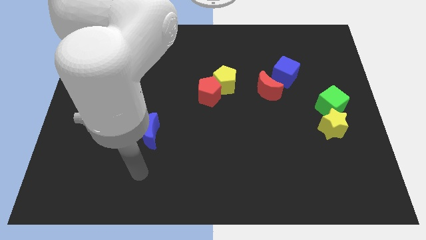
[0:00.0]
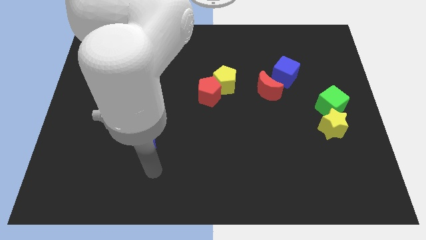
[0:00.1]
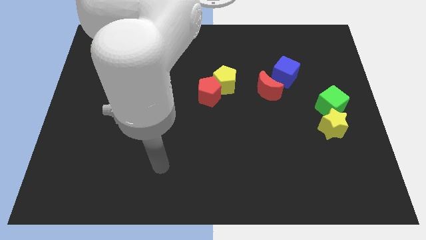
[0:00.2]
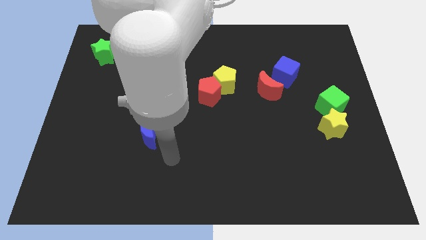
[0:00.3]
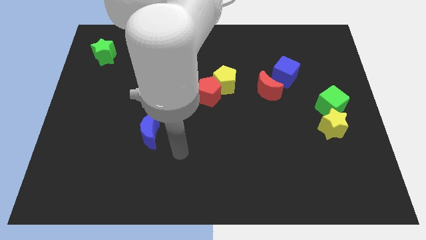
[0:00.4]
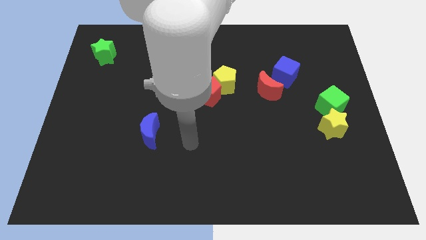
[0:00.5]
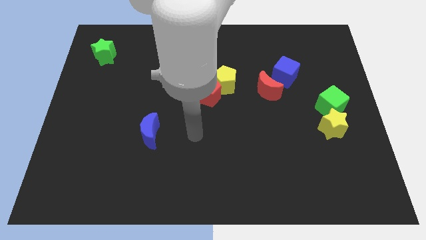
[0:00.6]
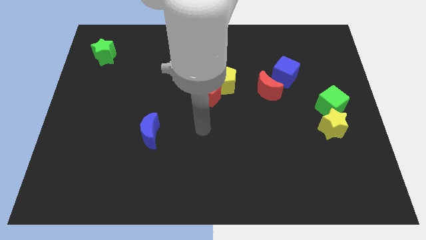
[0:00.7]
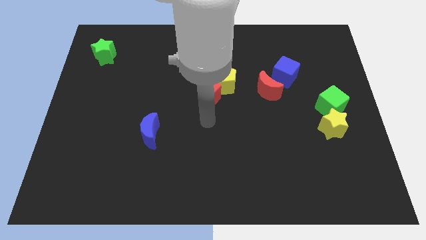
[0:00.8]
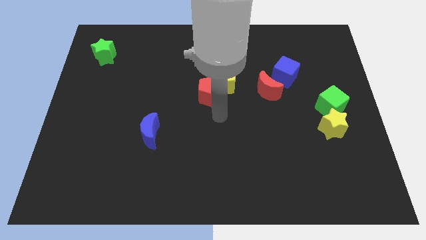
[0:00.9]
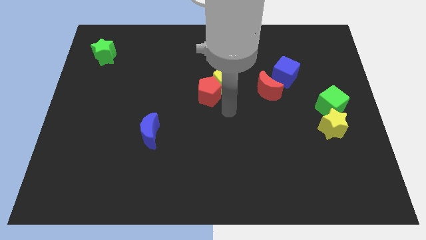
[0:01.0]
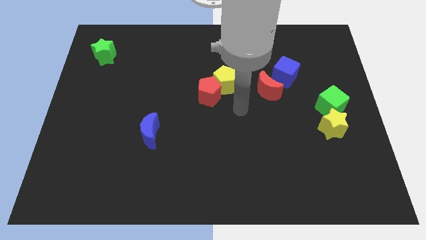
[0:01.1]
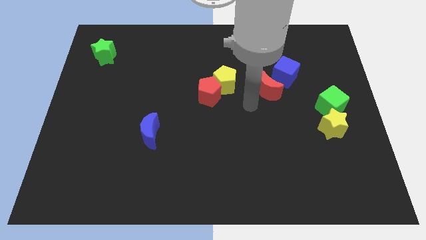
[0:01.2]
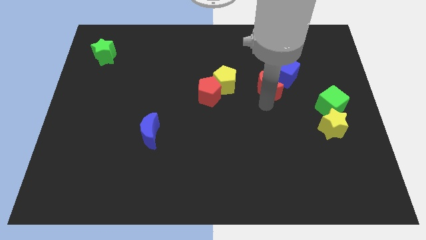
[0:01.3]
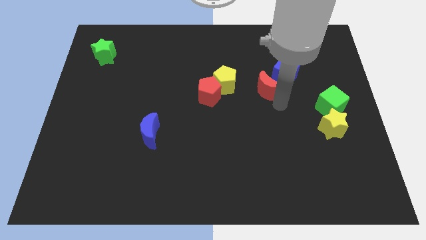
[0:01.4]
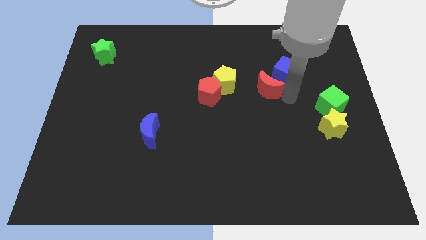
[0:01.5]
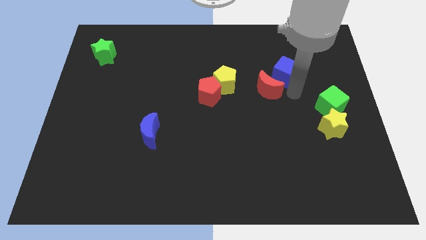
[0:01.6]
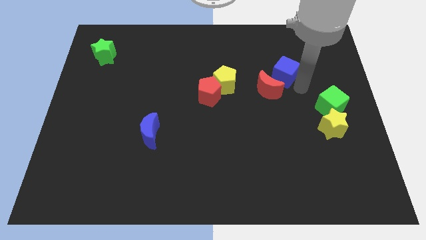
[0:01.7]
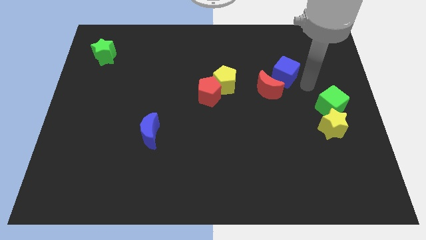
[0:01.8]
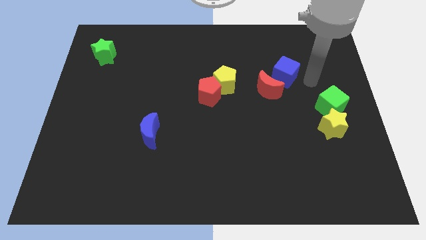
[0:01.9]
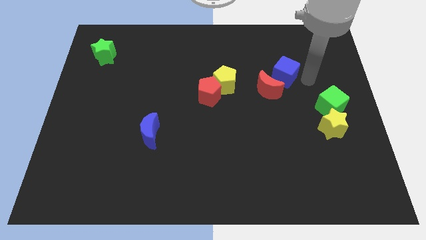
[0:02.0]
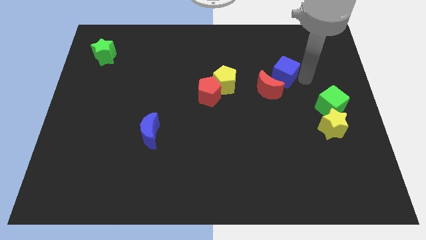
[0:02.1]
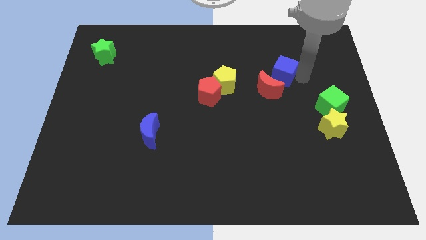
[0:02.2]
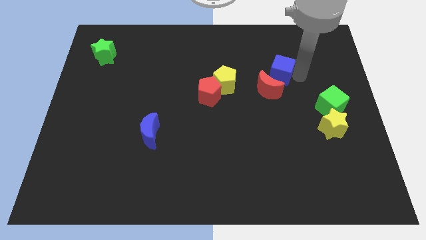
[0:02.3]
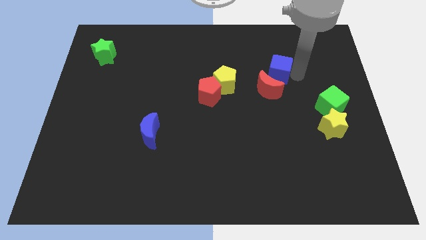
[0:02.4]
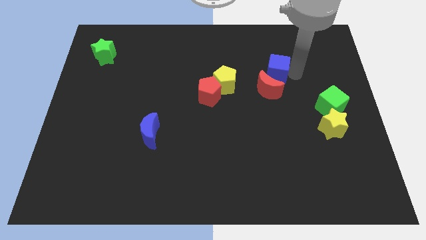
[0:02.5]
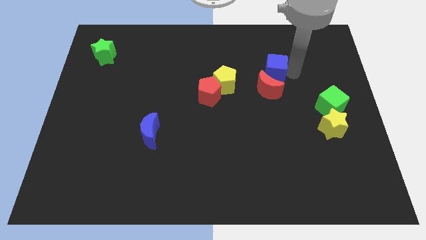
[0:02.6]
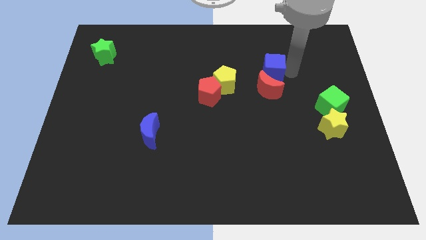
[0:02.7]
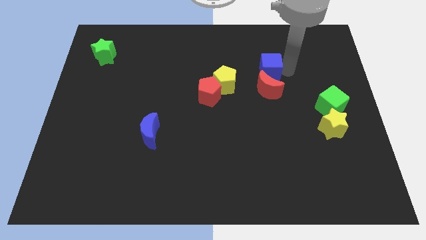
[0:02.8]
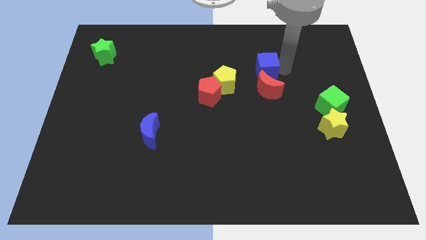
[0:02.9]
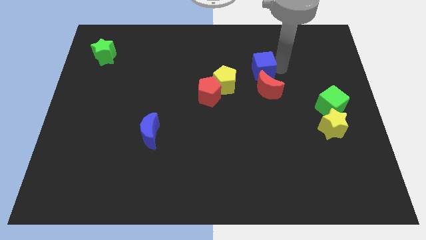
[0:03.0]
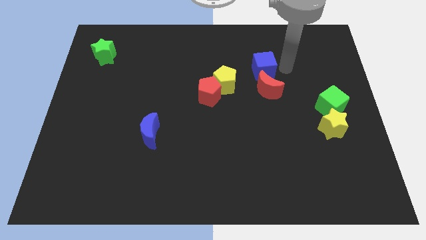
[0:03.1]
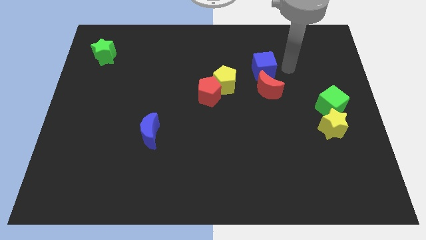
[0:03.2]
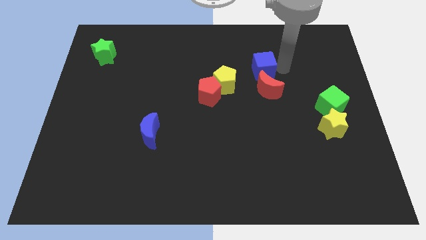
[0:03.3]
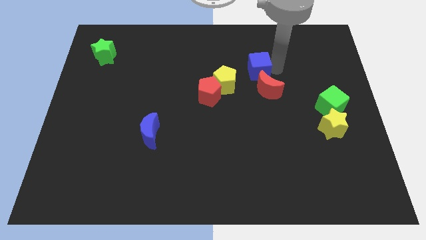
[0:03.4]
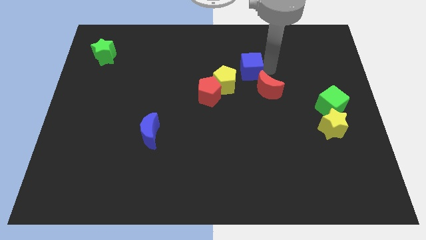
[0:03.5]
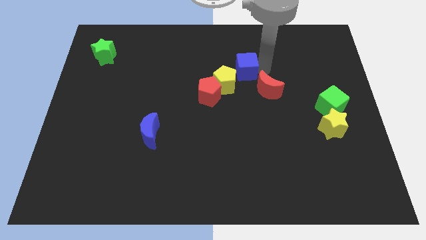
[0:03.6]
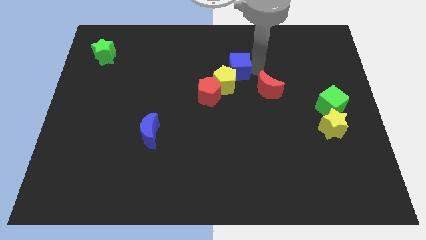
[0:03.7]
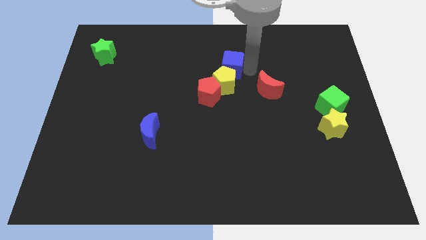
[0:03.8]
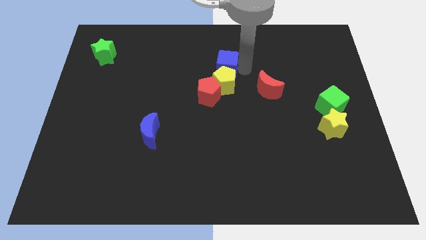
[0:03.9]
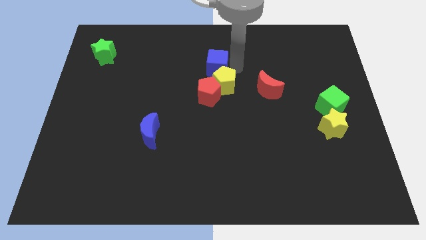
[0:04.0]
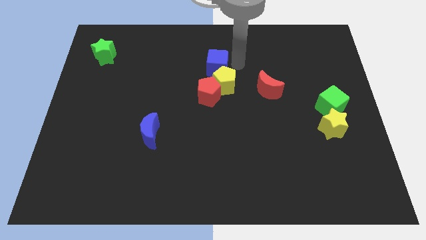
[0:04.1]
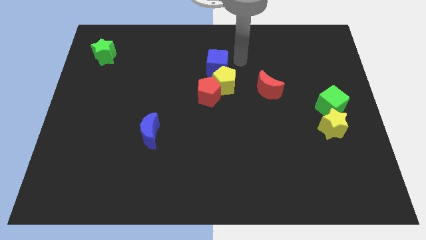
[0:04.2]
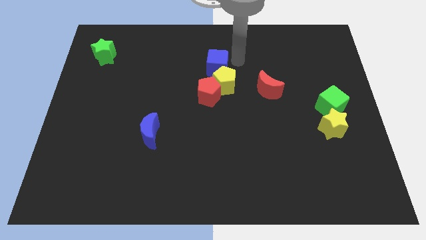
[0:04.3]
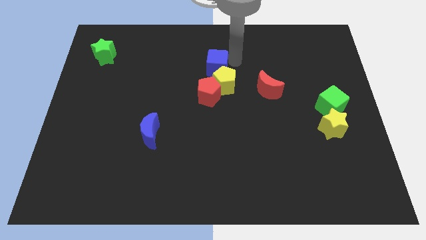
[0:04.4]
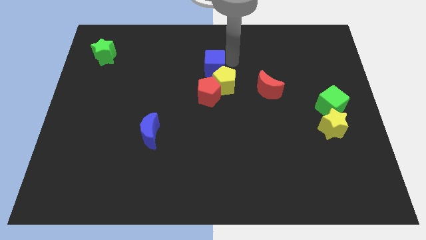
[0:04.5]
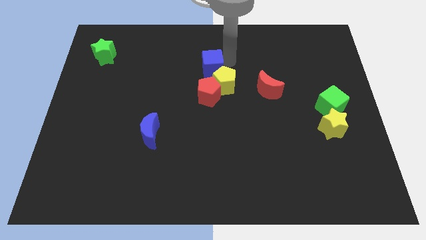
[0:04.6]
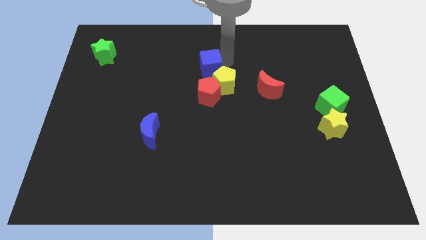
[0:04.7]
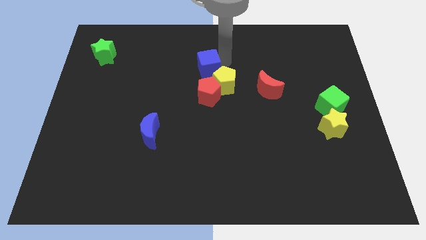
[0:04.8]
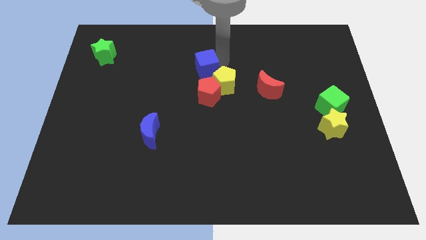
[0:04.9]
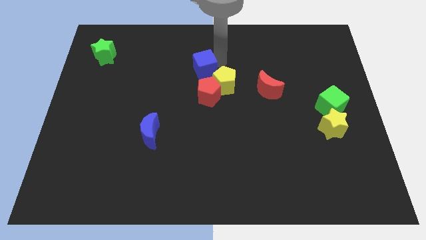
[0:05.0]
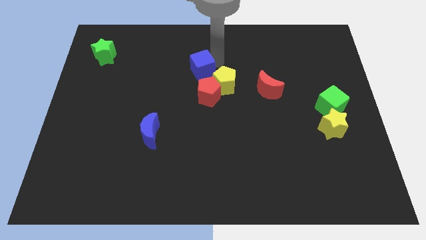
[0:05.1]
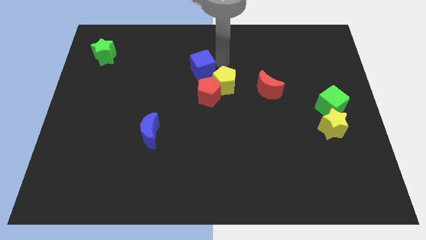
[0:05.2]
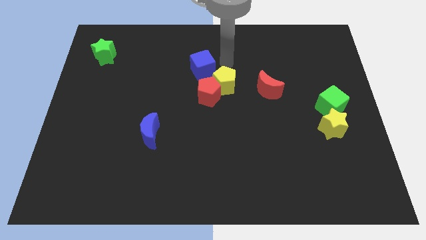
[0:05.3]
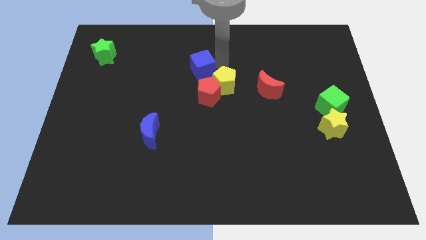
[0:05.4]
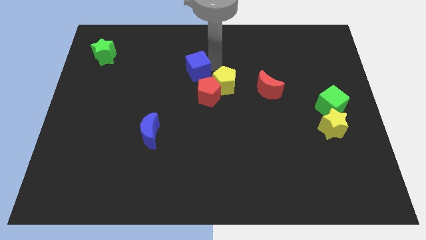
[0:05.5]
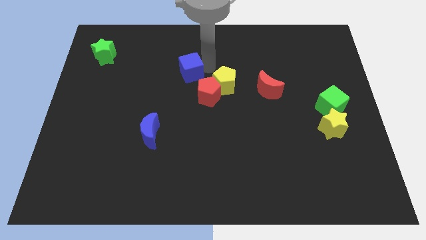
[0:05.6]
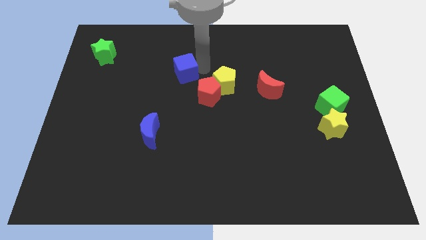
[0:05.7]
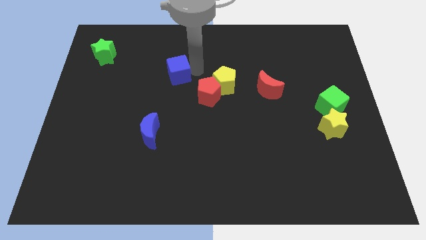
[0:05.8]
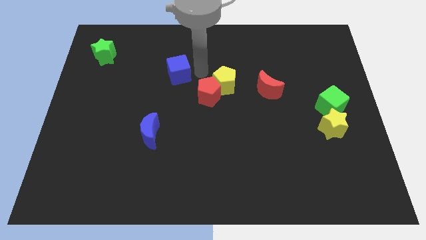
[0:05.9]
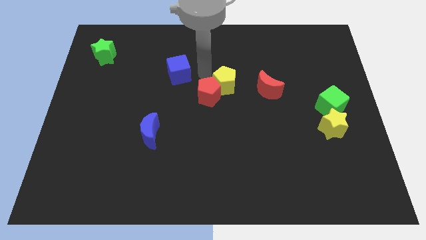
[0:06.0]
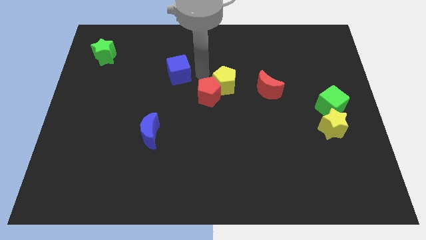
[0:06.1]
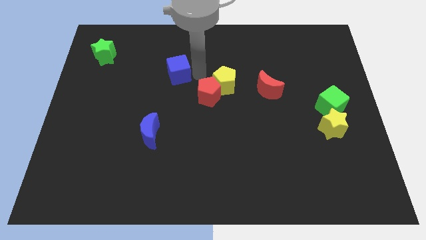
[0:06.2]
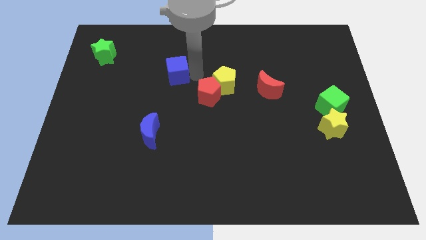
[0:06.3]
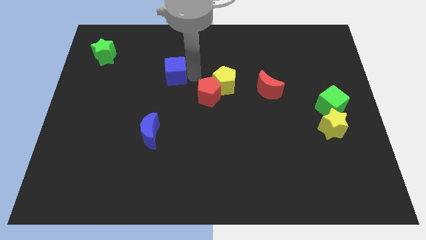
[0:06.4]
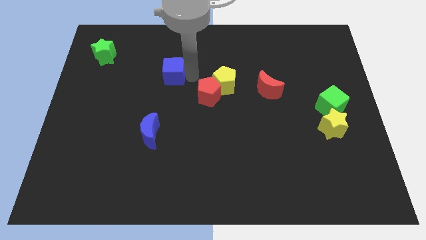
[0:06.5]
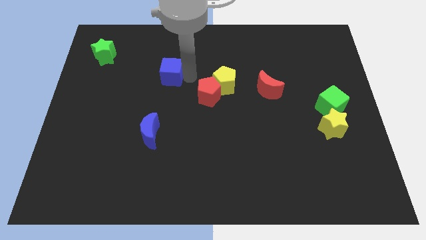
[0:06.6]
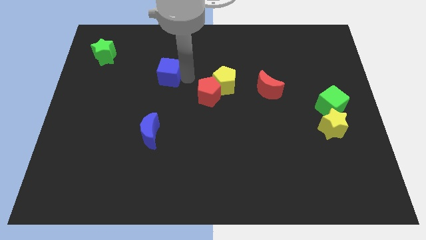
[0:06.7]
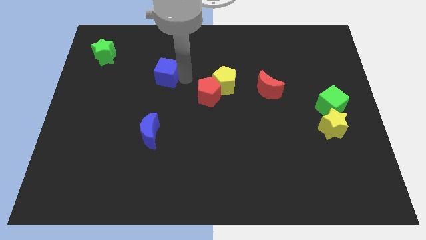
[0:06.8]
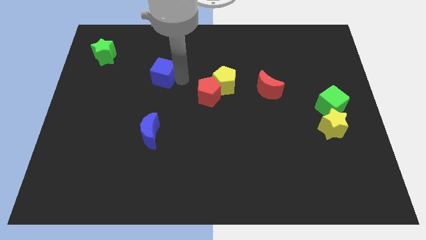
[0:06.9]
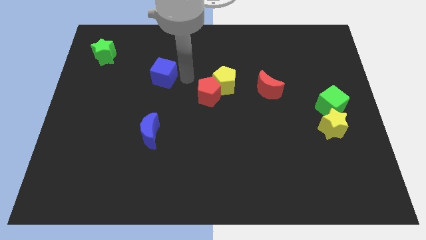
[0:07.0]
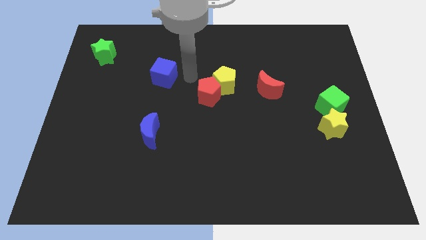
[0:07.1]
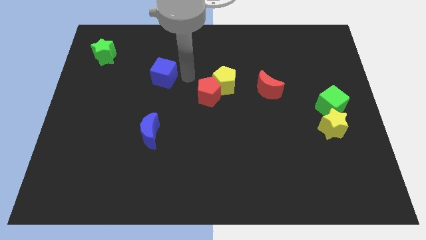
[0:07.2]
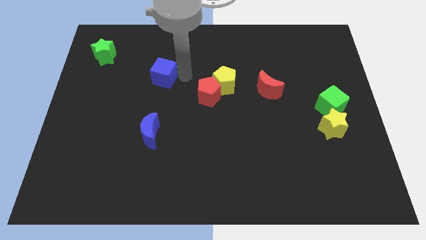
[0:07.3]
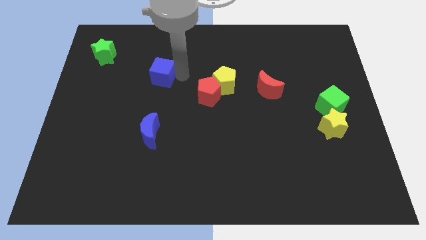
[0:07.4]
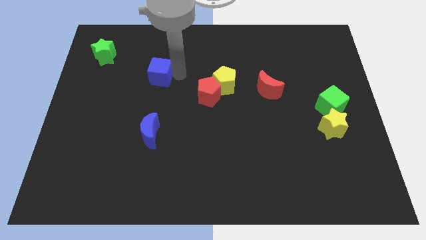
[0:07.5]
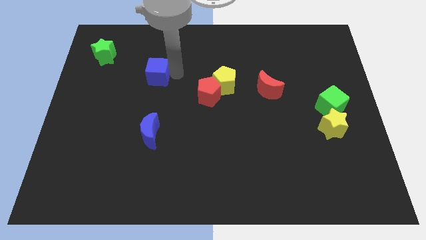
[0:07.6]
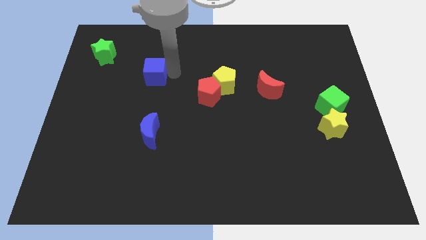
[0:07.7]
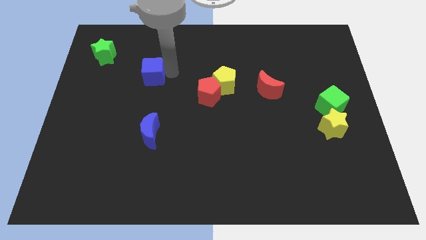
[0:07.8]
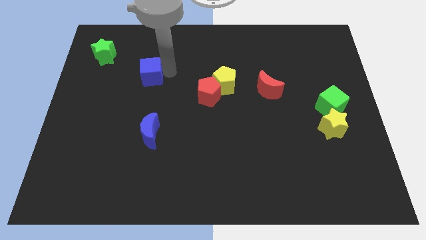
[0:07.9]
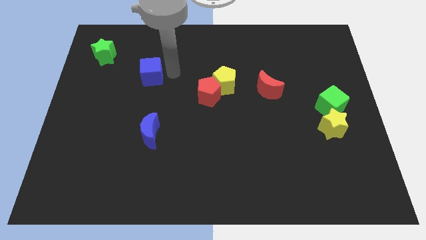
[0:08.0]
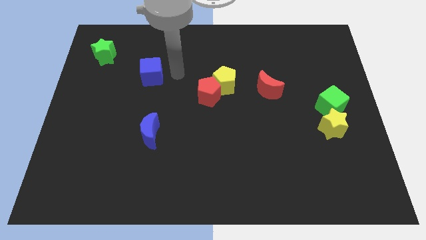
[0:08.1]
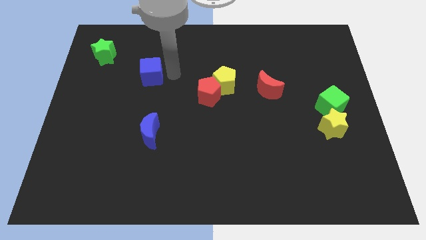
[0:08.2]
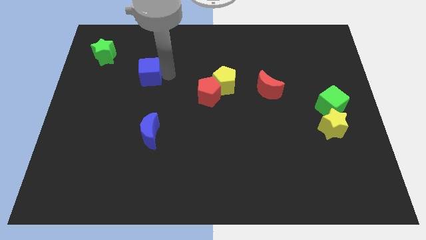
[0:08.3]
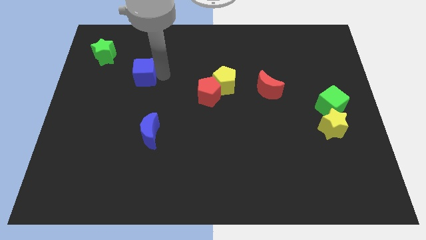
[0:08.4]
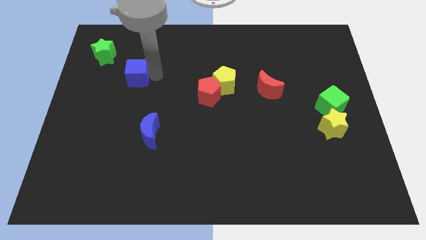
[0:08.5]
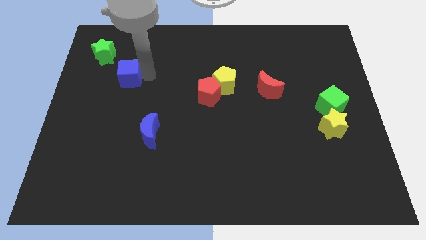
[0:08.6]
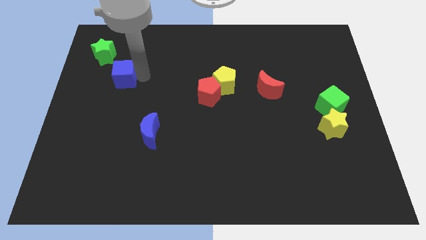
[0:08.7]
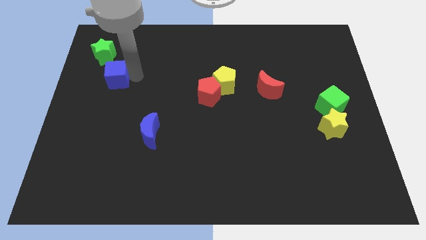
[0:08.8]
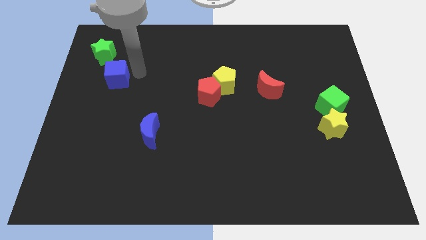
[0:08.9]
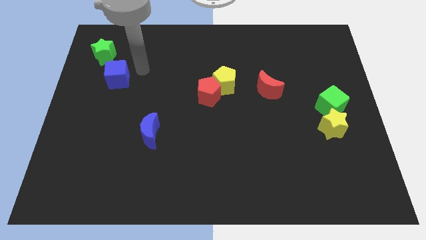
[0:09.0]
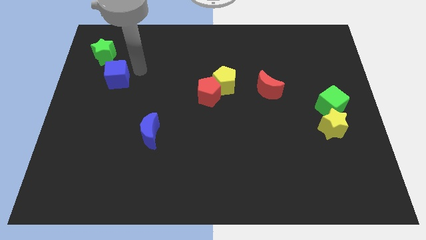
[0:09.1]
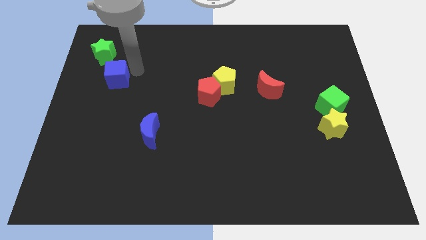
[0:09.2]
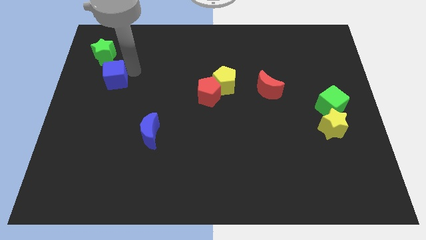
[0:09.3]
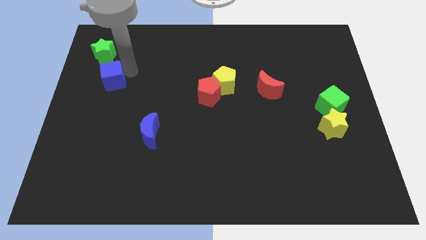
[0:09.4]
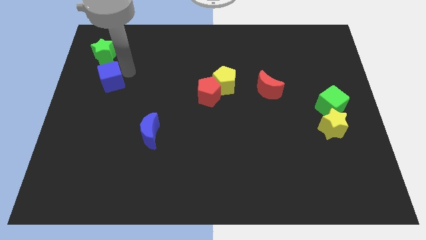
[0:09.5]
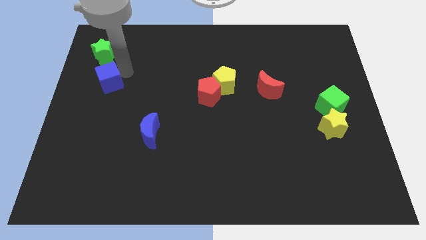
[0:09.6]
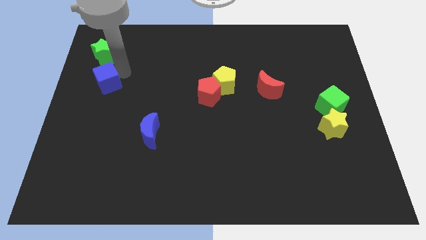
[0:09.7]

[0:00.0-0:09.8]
push the blue cube to the left side
